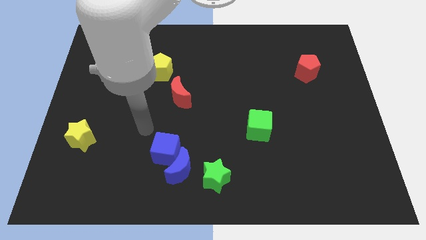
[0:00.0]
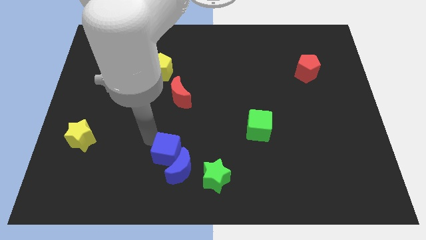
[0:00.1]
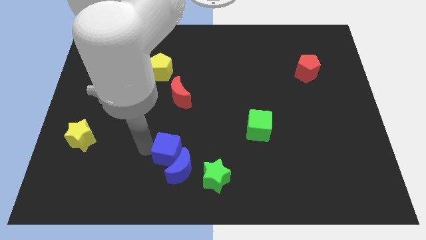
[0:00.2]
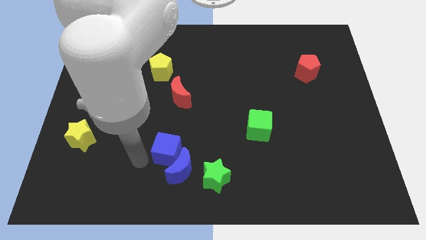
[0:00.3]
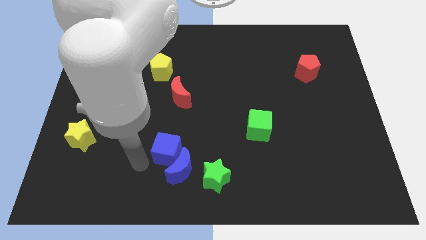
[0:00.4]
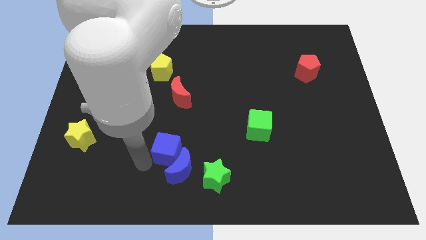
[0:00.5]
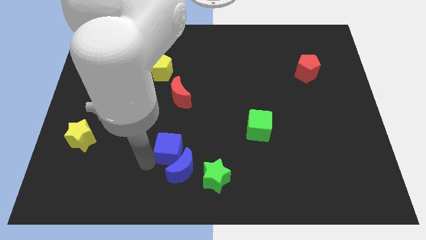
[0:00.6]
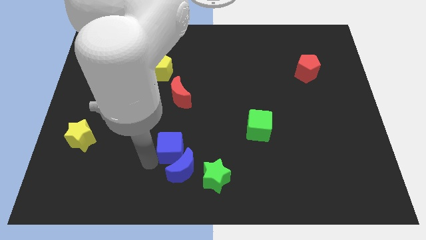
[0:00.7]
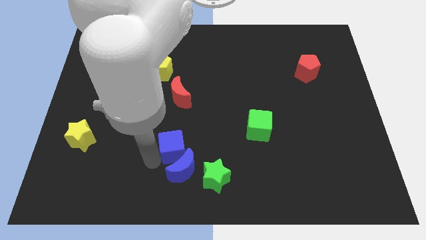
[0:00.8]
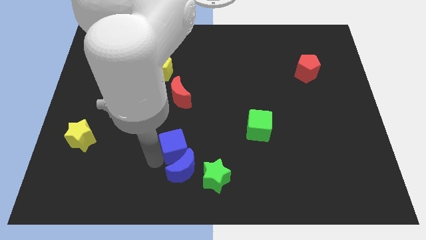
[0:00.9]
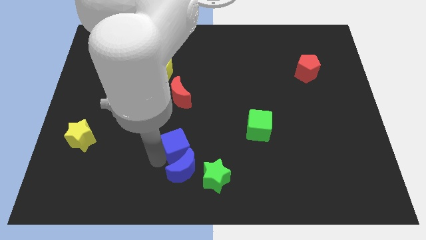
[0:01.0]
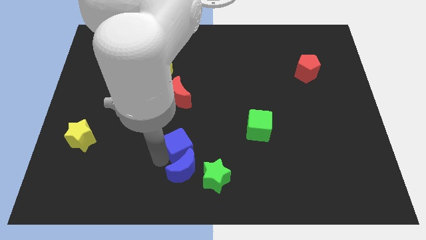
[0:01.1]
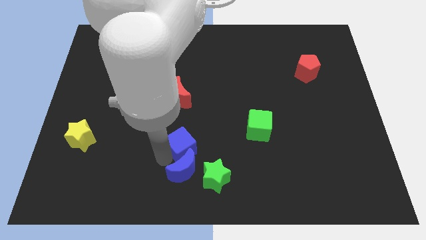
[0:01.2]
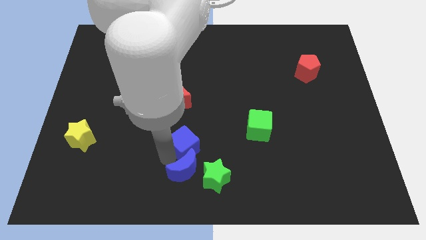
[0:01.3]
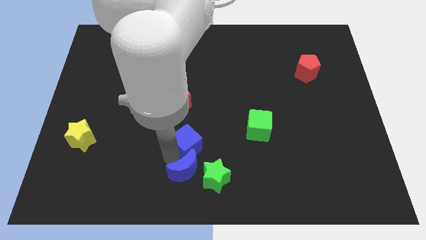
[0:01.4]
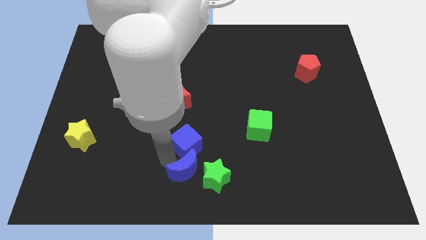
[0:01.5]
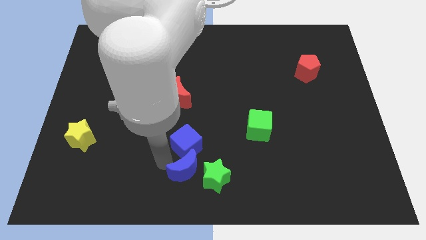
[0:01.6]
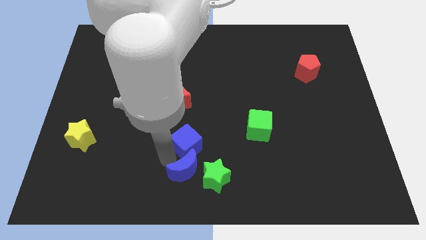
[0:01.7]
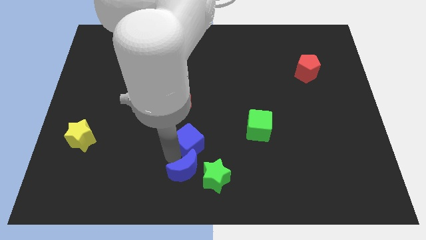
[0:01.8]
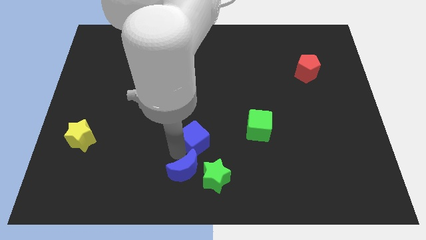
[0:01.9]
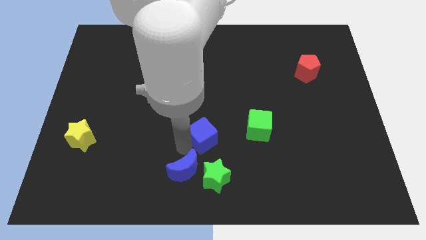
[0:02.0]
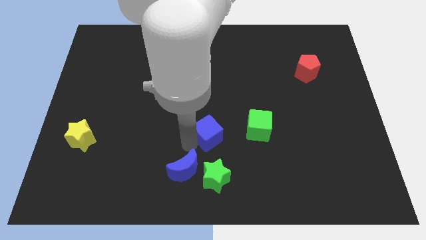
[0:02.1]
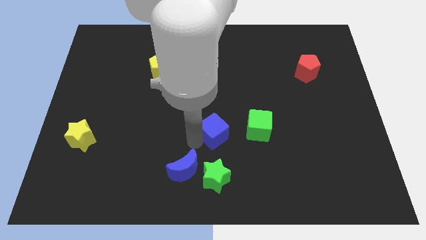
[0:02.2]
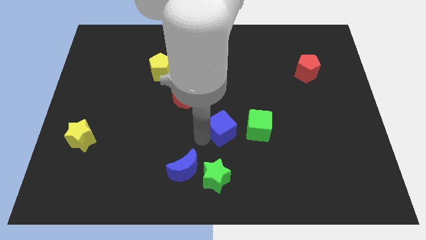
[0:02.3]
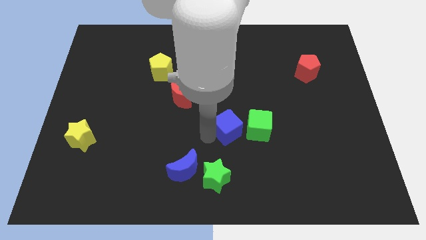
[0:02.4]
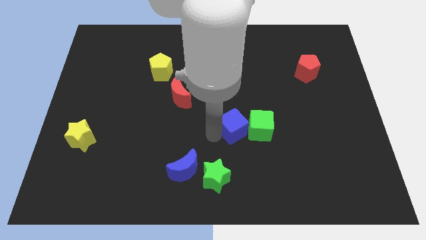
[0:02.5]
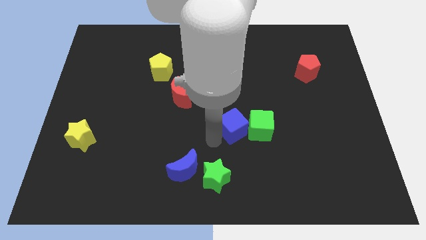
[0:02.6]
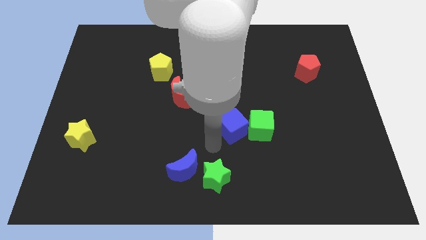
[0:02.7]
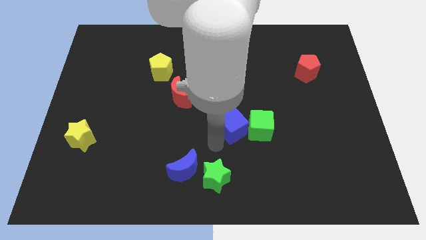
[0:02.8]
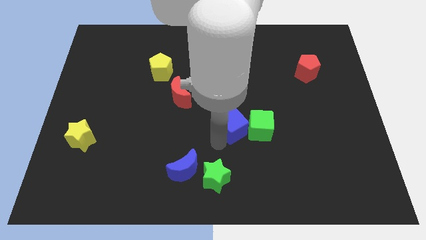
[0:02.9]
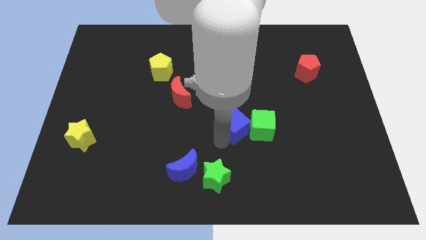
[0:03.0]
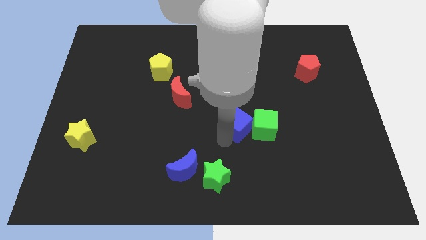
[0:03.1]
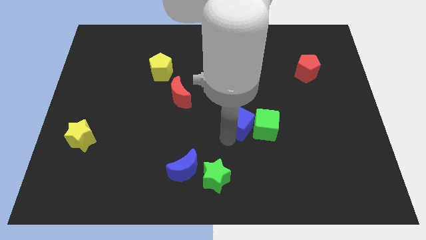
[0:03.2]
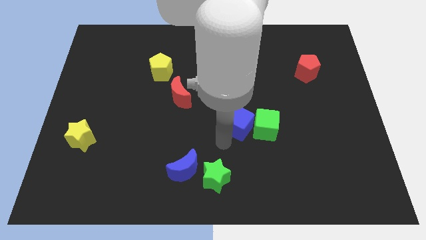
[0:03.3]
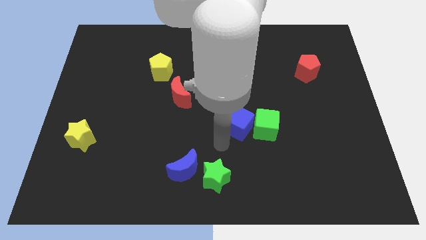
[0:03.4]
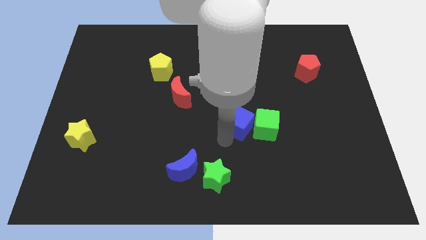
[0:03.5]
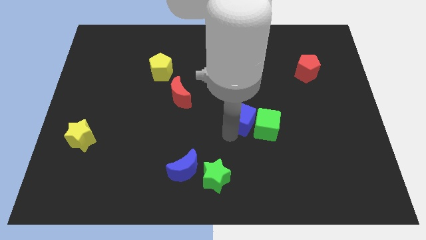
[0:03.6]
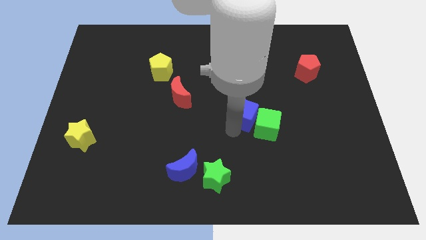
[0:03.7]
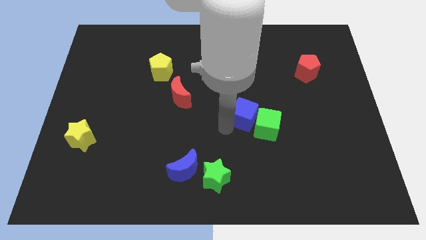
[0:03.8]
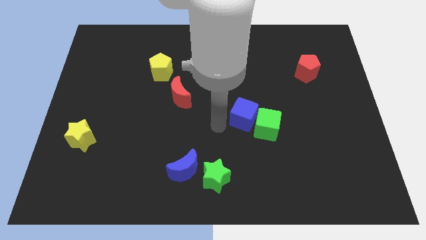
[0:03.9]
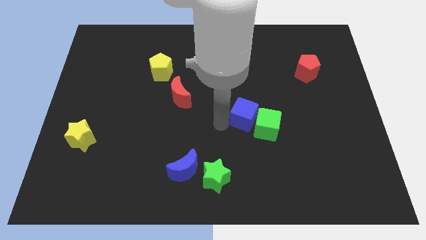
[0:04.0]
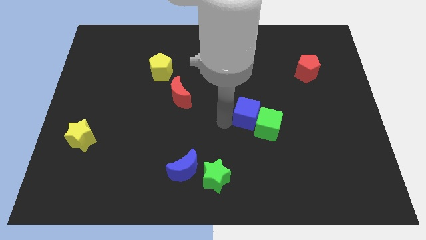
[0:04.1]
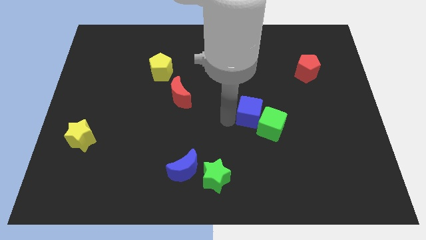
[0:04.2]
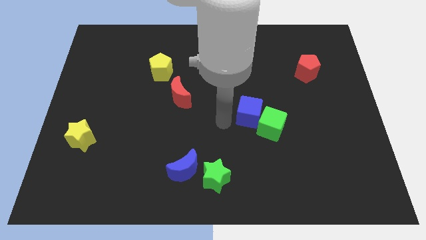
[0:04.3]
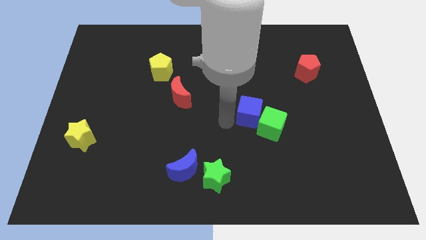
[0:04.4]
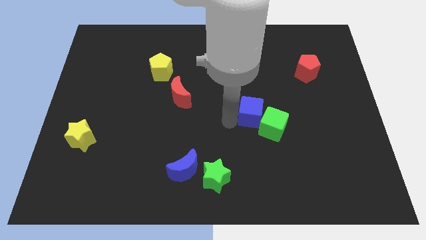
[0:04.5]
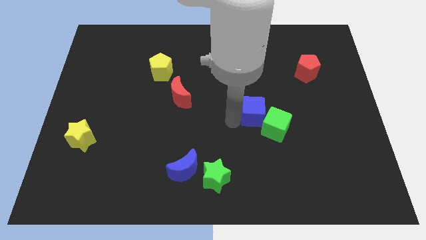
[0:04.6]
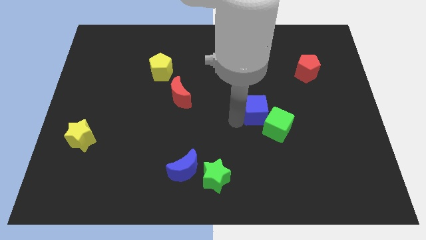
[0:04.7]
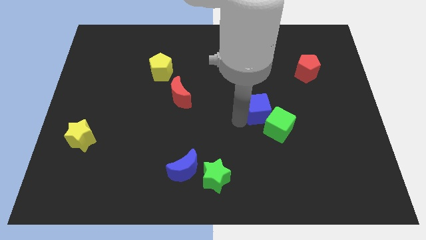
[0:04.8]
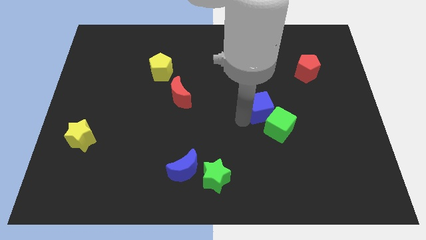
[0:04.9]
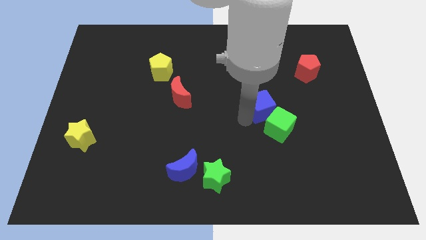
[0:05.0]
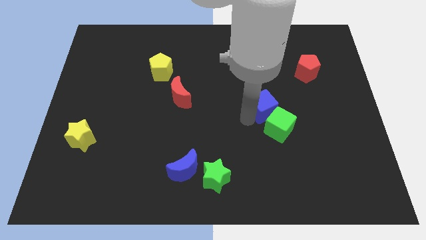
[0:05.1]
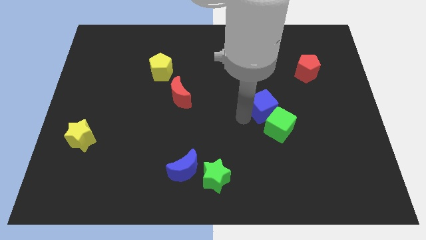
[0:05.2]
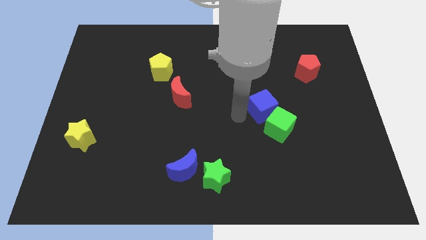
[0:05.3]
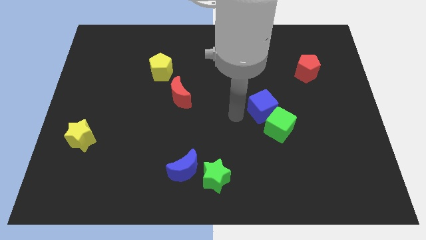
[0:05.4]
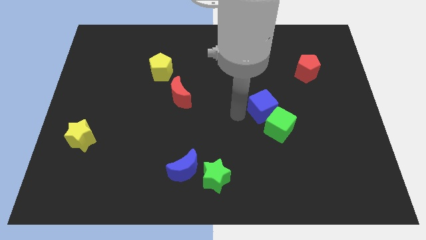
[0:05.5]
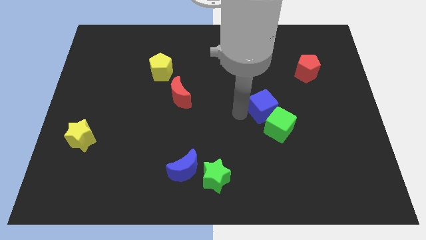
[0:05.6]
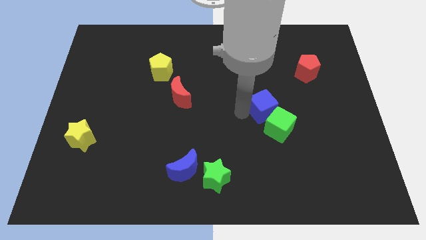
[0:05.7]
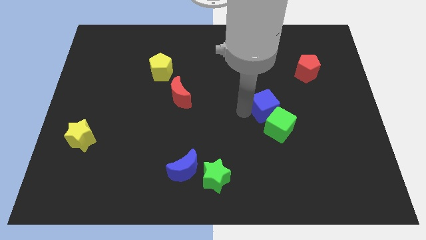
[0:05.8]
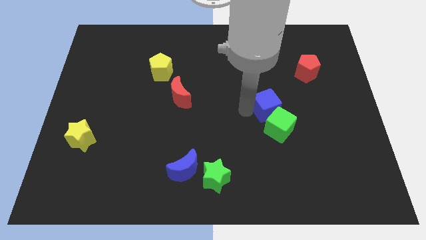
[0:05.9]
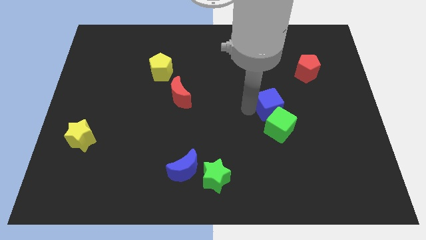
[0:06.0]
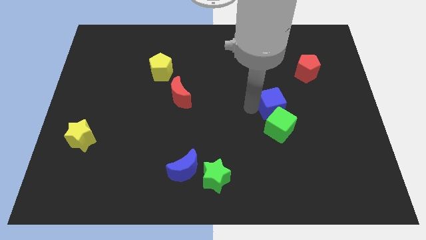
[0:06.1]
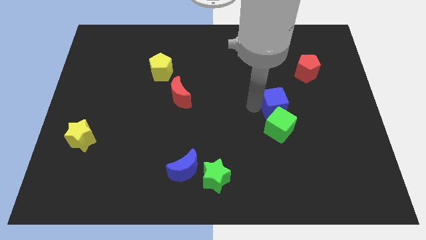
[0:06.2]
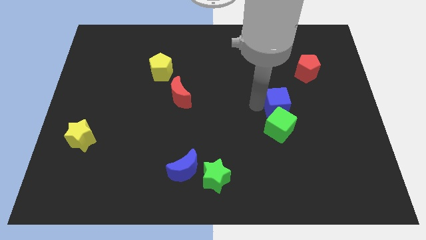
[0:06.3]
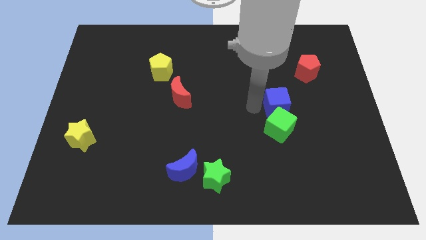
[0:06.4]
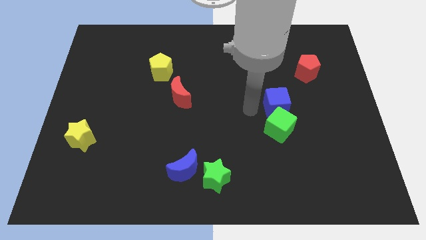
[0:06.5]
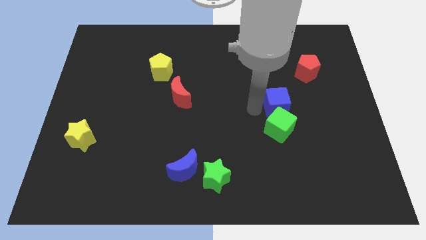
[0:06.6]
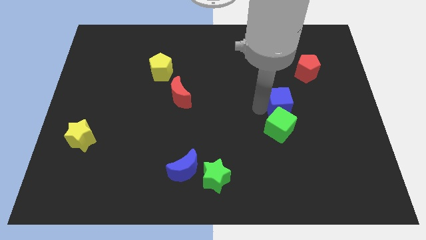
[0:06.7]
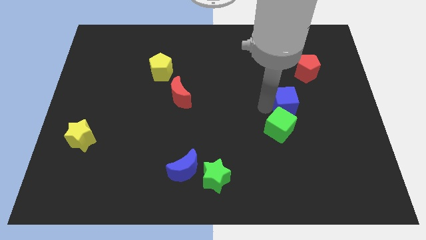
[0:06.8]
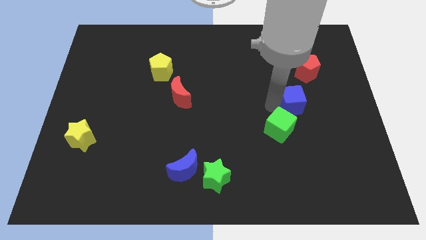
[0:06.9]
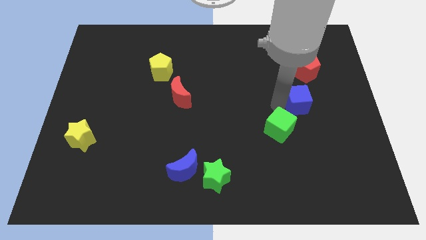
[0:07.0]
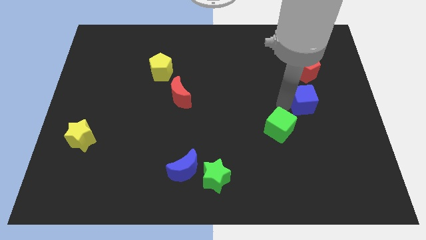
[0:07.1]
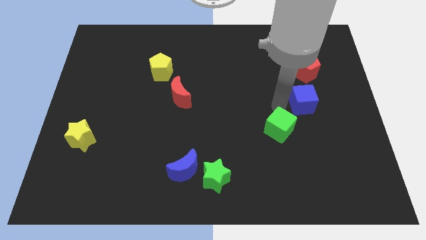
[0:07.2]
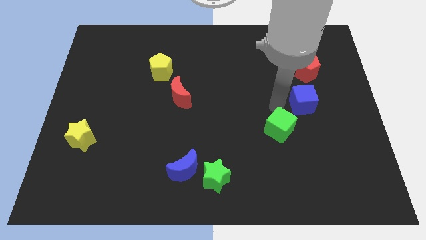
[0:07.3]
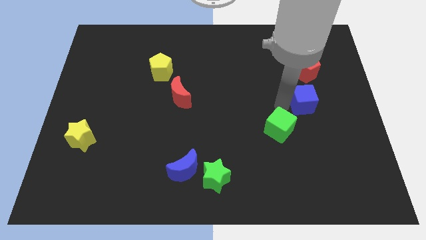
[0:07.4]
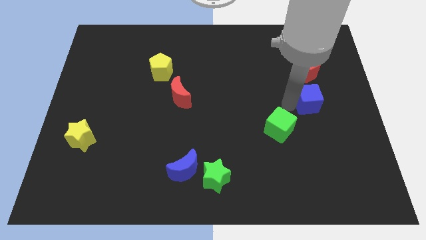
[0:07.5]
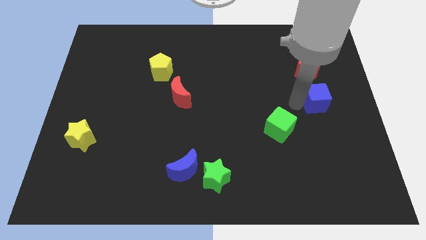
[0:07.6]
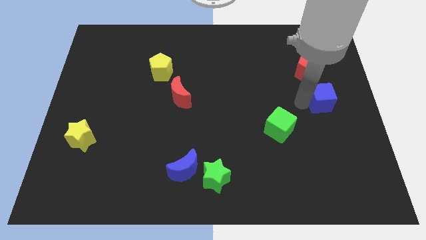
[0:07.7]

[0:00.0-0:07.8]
move the blue cube to the right side of the board
